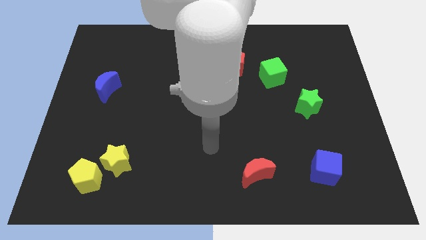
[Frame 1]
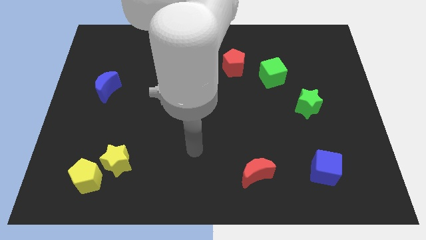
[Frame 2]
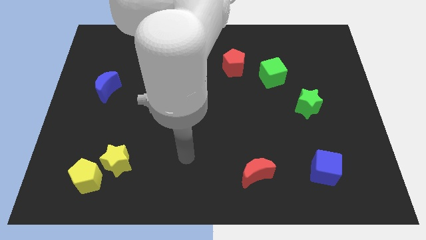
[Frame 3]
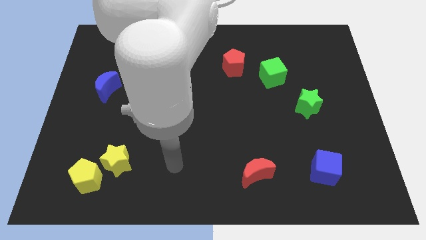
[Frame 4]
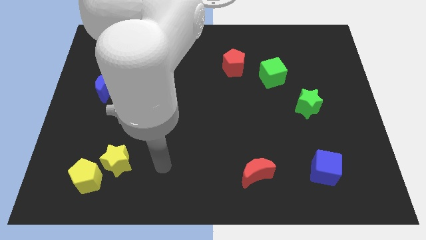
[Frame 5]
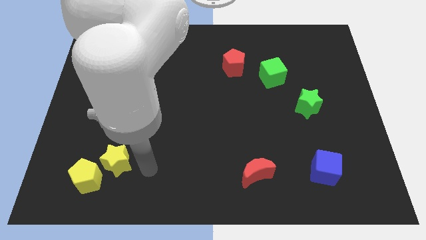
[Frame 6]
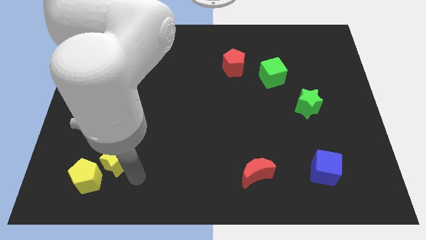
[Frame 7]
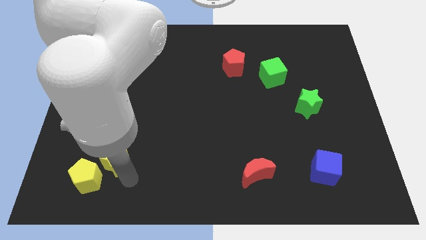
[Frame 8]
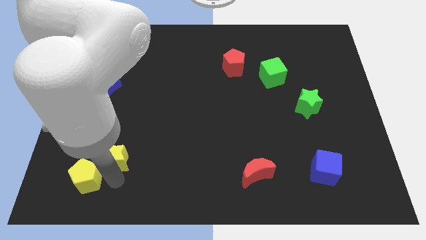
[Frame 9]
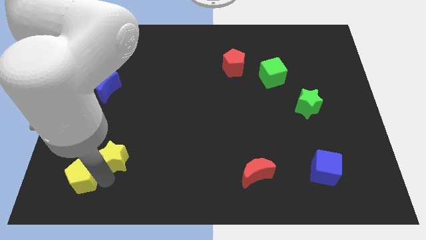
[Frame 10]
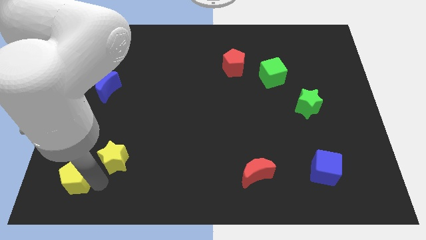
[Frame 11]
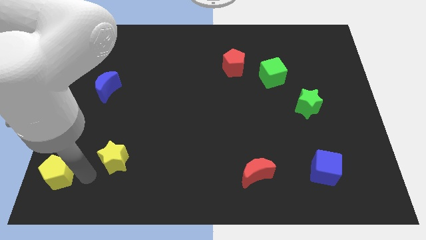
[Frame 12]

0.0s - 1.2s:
pull the yellow star apart from the yellow pentagon

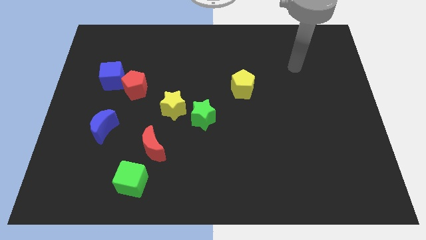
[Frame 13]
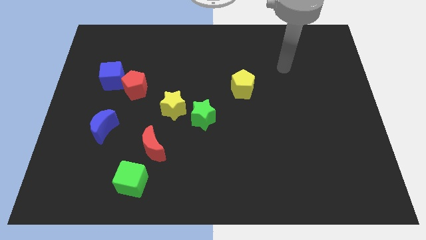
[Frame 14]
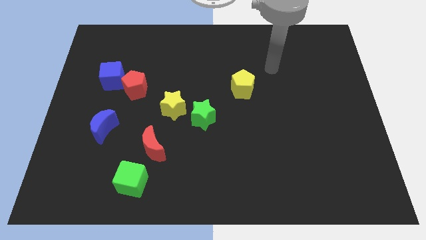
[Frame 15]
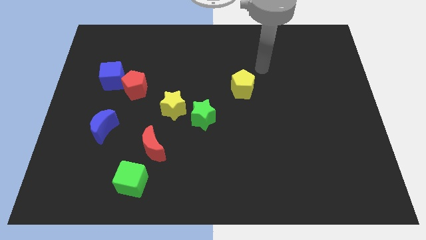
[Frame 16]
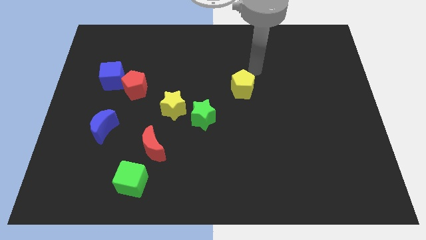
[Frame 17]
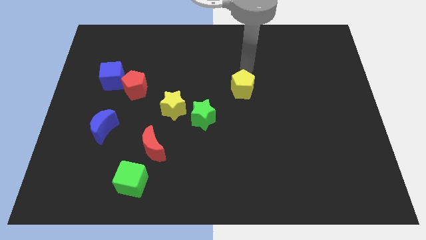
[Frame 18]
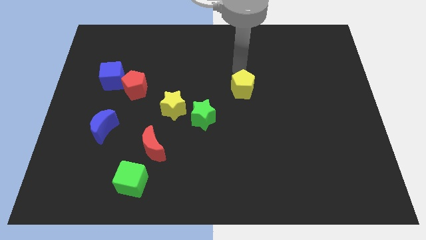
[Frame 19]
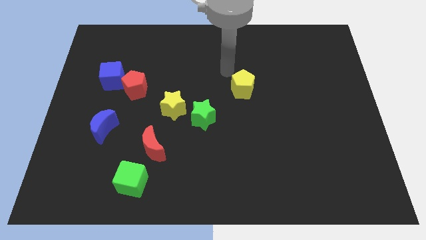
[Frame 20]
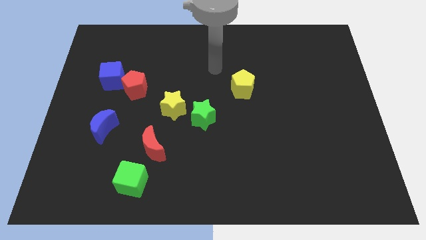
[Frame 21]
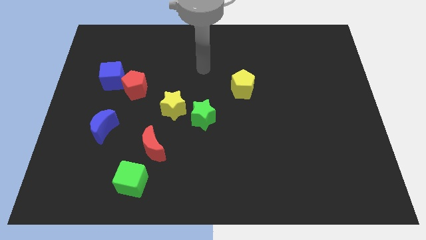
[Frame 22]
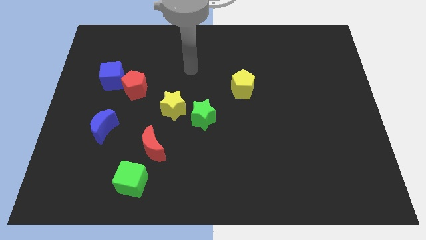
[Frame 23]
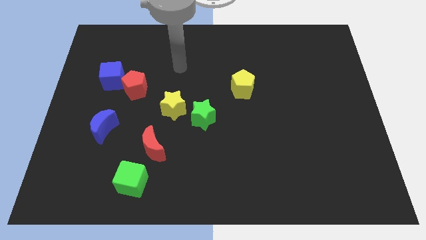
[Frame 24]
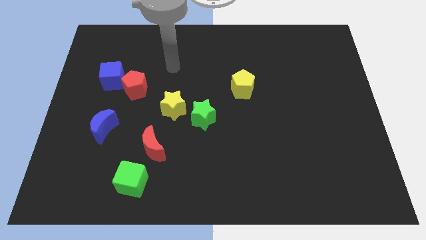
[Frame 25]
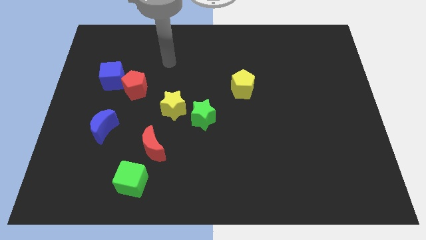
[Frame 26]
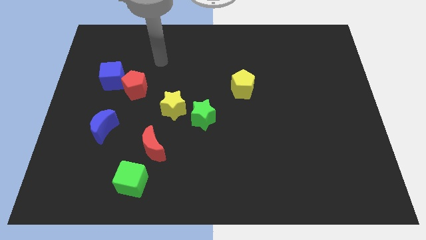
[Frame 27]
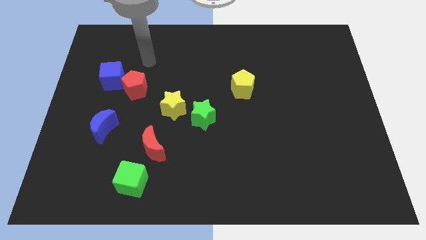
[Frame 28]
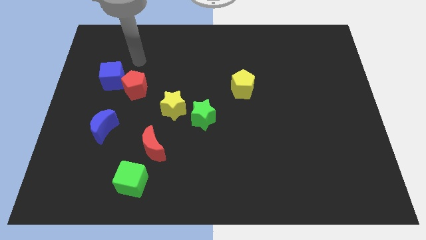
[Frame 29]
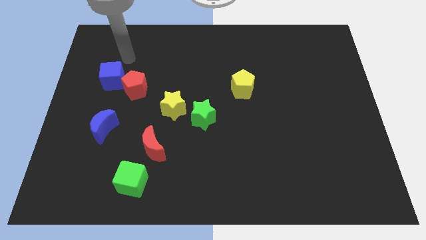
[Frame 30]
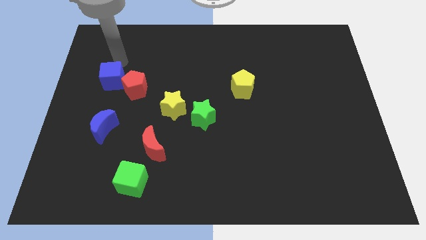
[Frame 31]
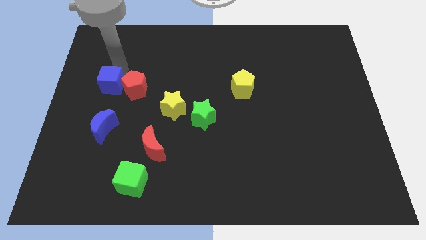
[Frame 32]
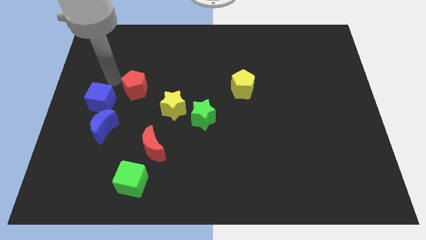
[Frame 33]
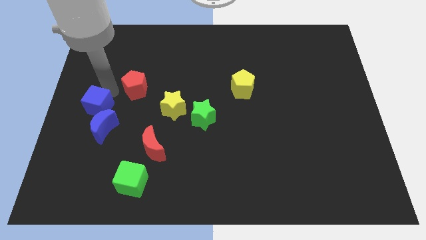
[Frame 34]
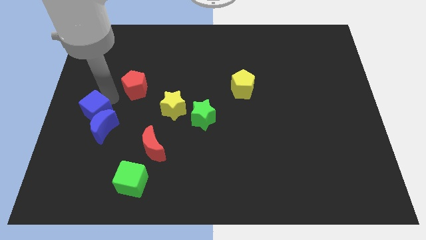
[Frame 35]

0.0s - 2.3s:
pull the red pentagon apart from the blue cube

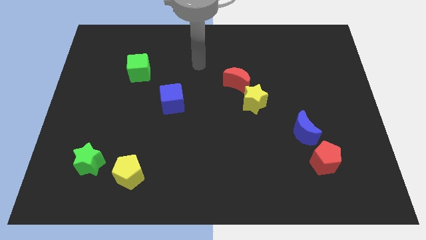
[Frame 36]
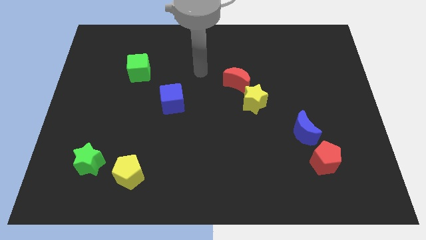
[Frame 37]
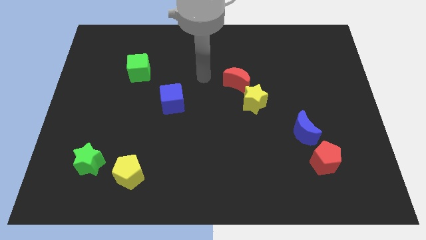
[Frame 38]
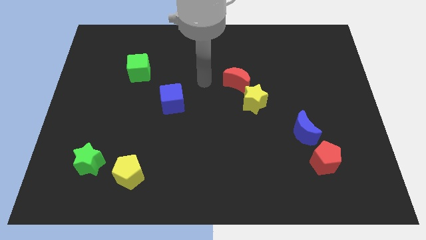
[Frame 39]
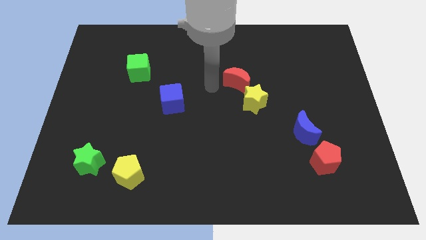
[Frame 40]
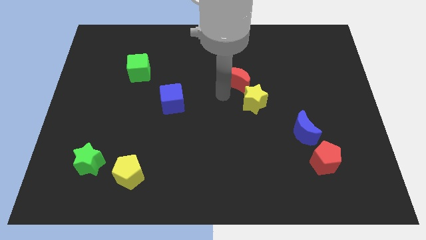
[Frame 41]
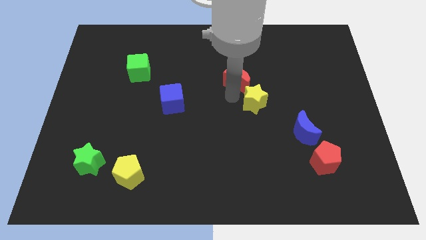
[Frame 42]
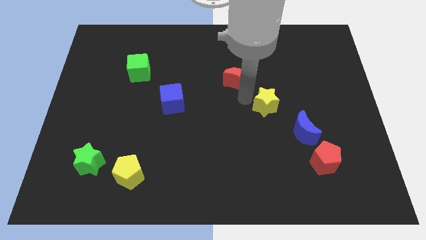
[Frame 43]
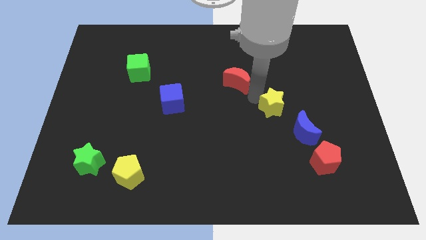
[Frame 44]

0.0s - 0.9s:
separate the red moon from the yellow star

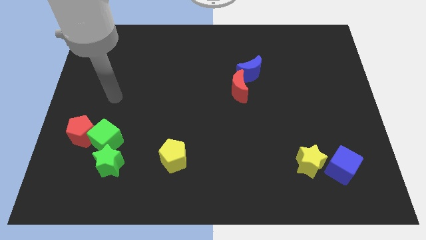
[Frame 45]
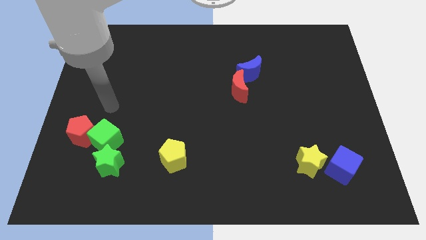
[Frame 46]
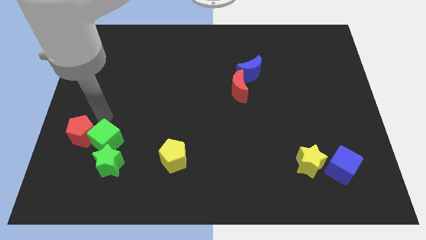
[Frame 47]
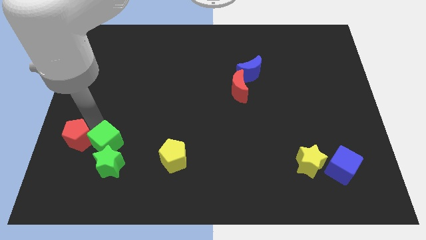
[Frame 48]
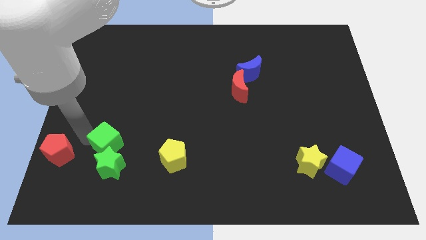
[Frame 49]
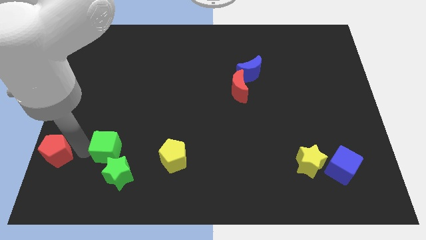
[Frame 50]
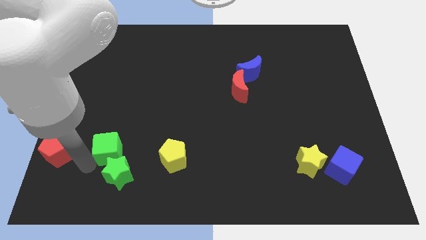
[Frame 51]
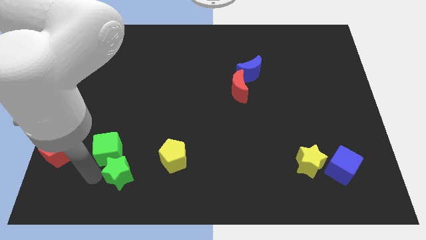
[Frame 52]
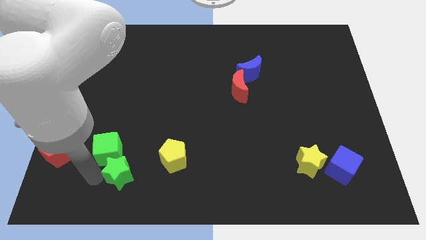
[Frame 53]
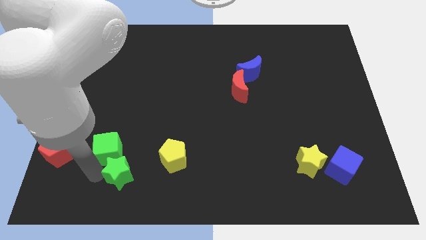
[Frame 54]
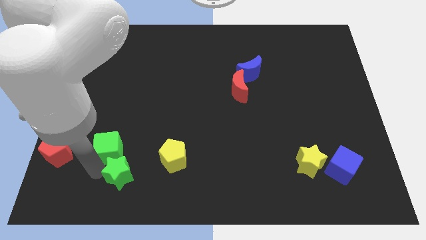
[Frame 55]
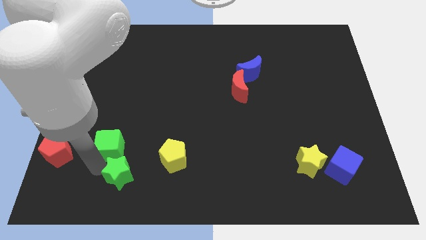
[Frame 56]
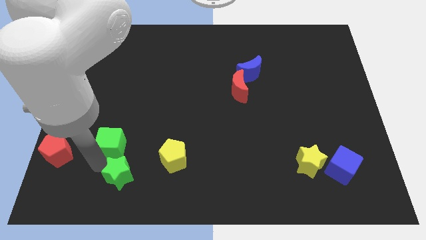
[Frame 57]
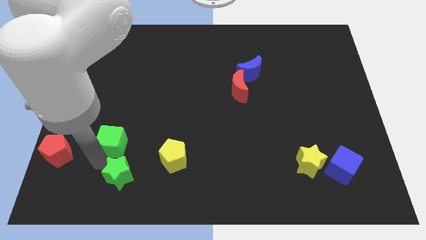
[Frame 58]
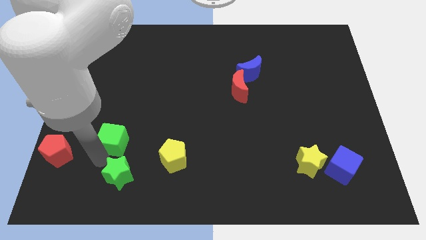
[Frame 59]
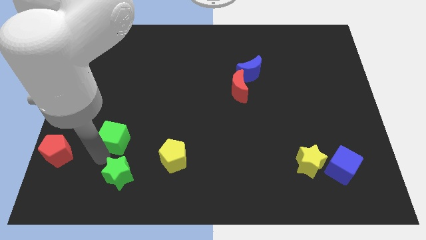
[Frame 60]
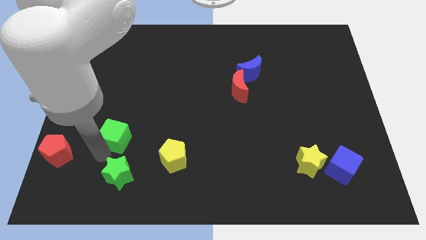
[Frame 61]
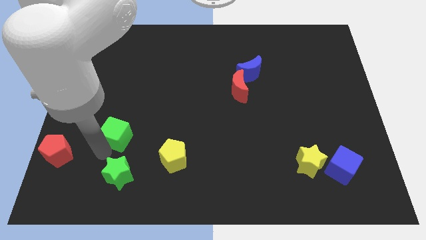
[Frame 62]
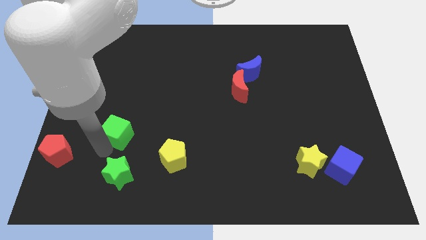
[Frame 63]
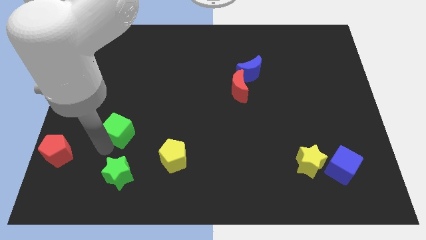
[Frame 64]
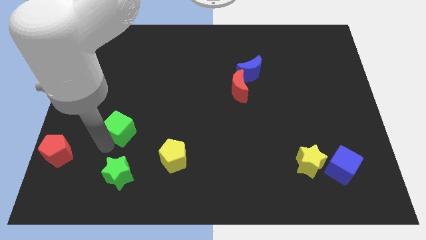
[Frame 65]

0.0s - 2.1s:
move the green cube away from the red pentagon and green star

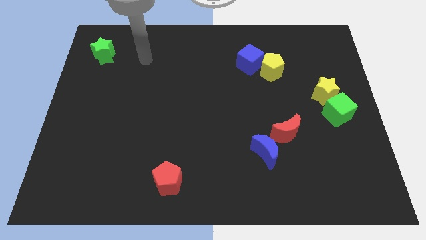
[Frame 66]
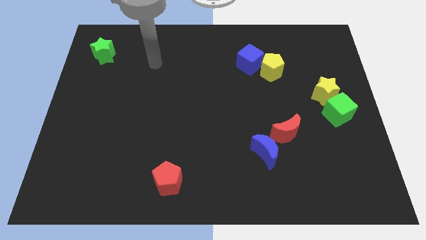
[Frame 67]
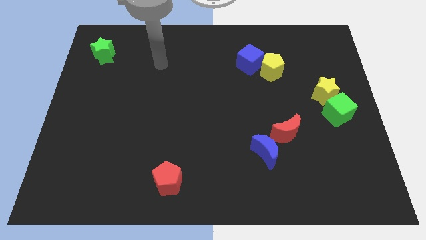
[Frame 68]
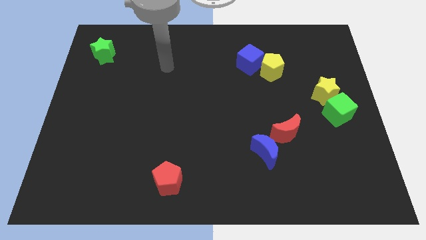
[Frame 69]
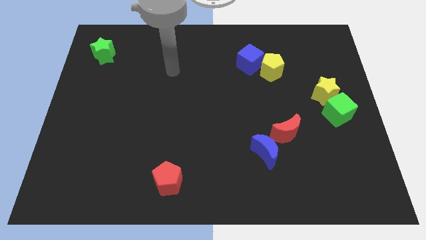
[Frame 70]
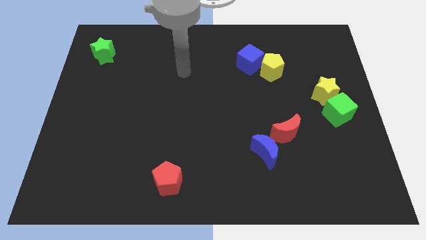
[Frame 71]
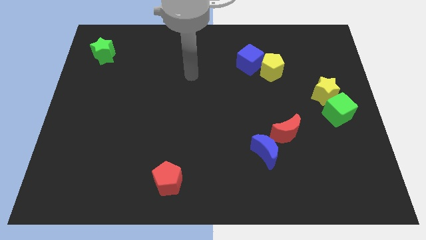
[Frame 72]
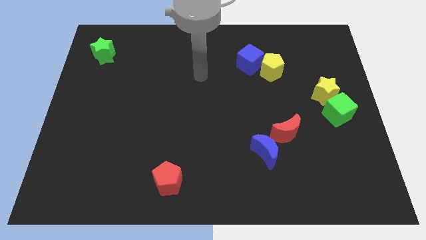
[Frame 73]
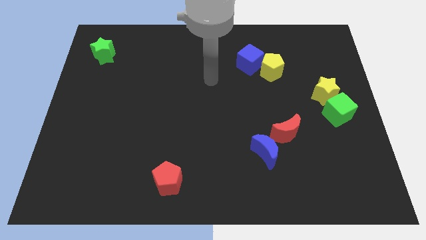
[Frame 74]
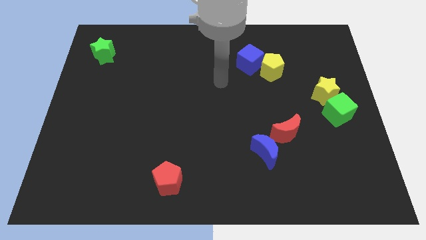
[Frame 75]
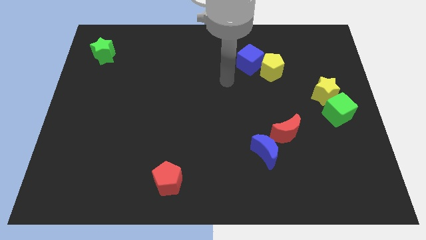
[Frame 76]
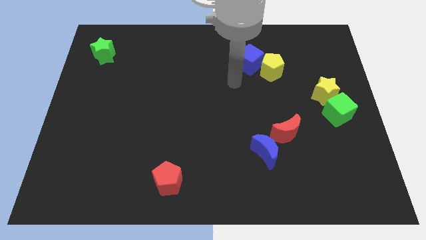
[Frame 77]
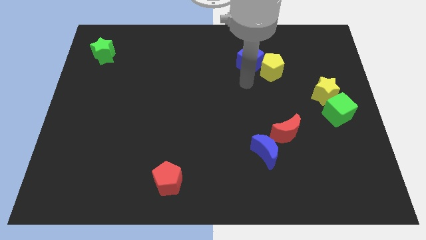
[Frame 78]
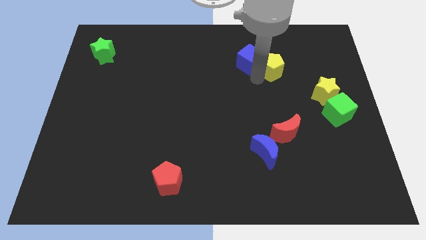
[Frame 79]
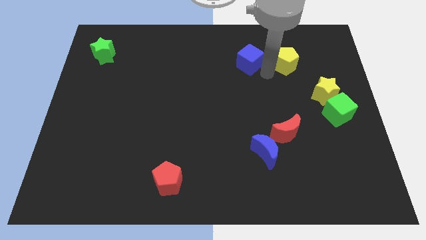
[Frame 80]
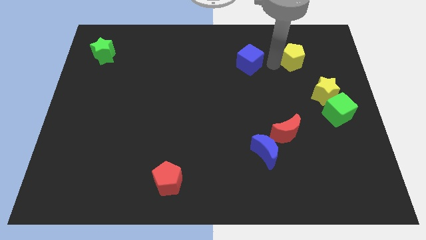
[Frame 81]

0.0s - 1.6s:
move the blue cube away from the yellow pentagon

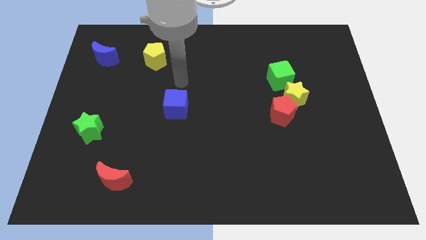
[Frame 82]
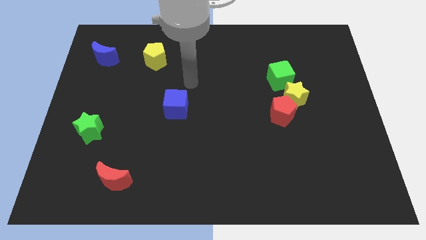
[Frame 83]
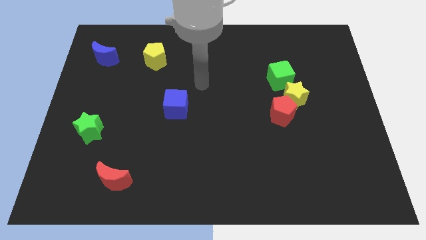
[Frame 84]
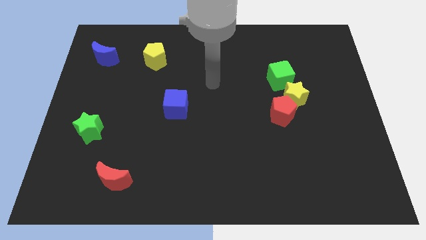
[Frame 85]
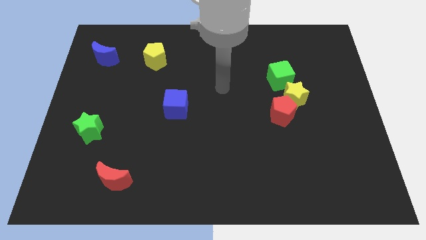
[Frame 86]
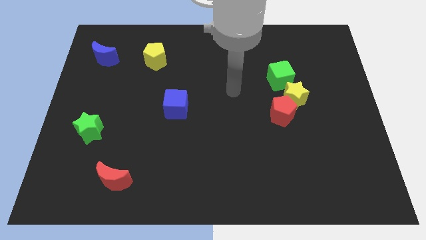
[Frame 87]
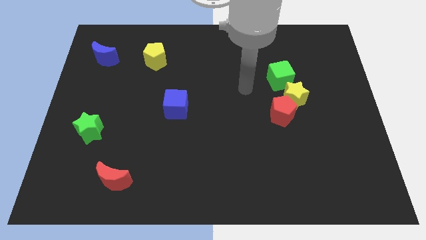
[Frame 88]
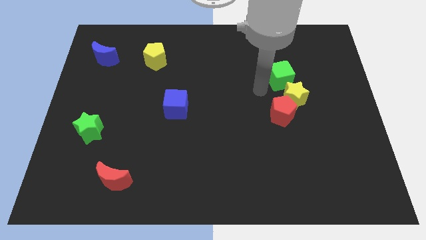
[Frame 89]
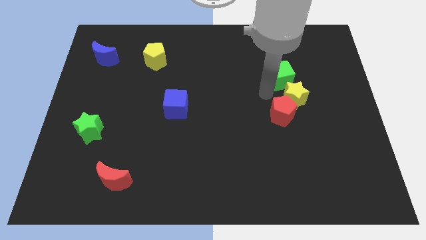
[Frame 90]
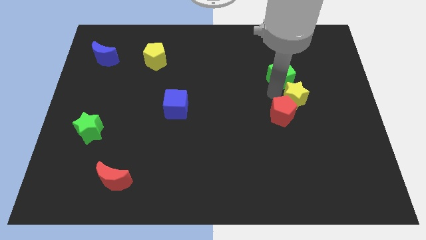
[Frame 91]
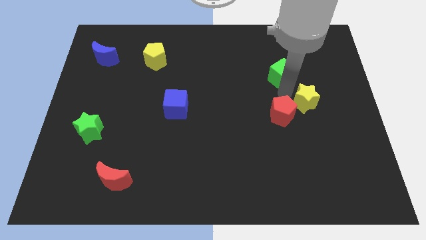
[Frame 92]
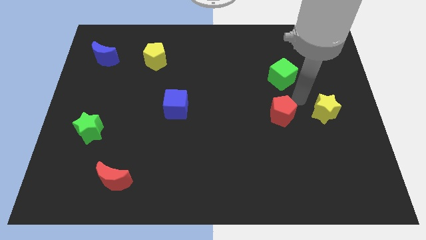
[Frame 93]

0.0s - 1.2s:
pull the red pentagon apart from the yellow star
